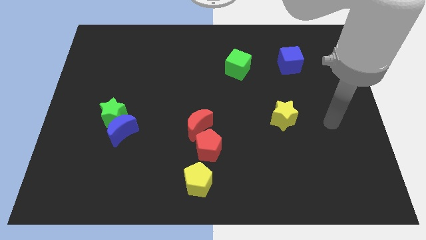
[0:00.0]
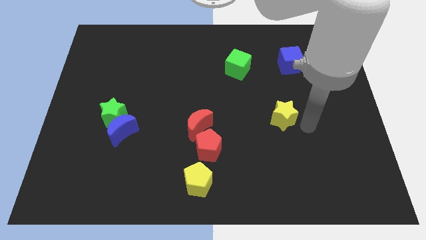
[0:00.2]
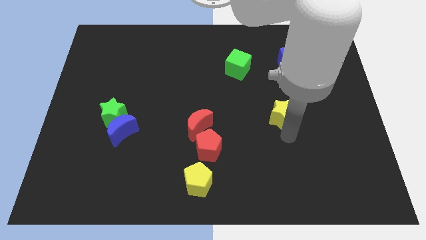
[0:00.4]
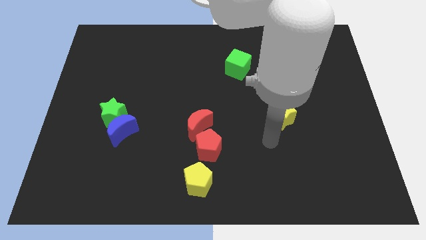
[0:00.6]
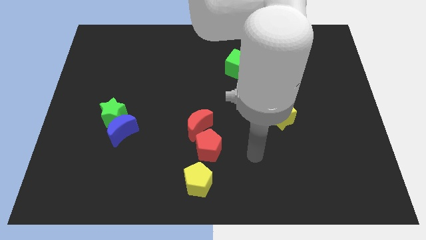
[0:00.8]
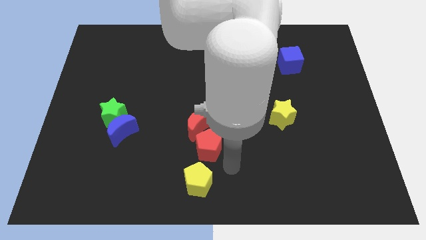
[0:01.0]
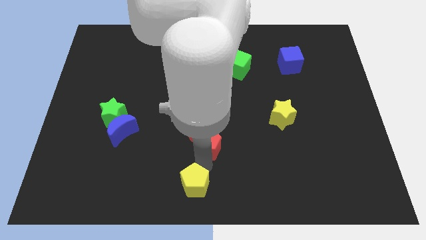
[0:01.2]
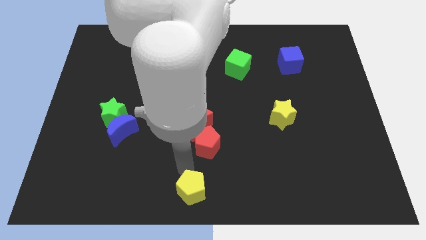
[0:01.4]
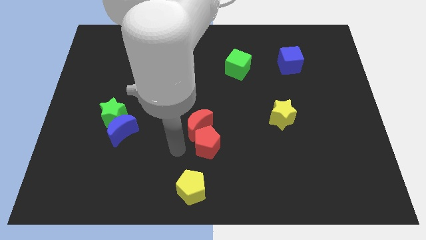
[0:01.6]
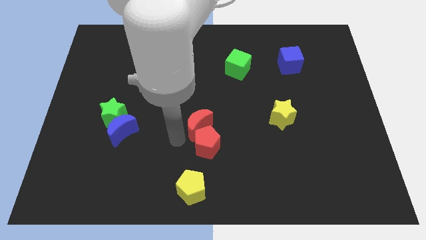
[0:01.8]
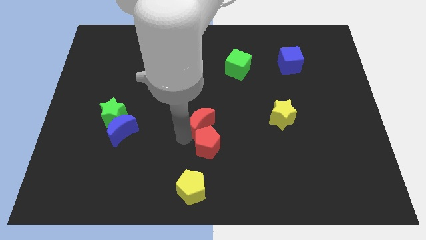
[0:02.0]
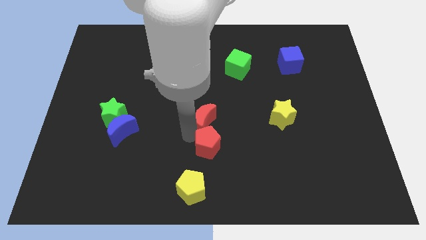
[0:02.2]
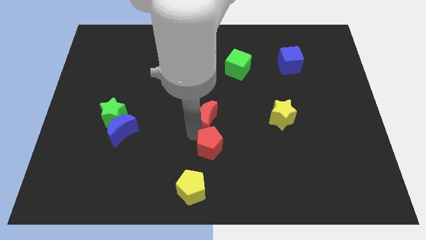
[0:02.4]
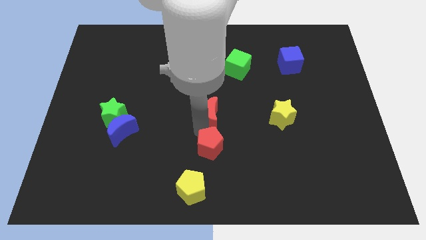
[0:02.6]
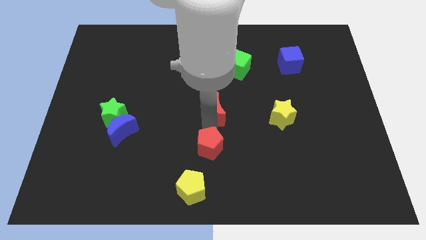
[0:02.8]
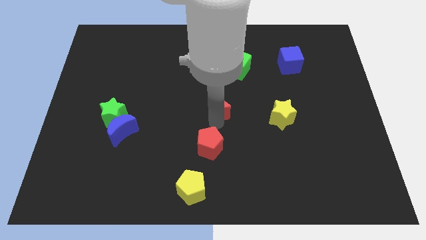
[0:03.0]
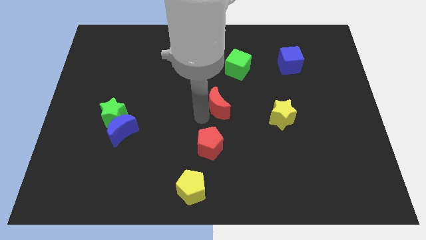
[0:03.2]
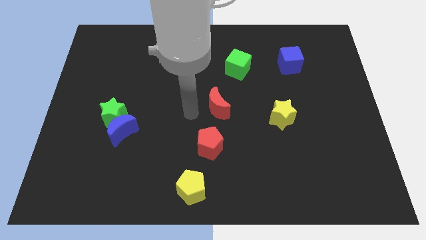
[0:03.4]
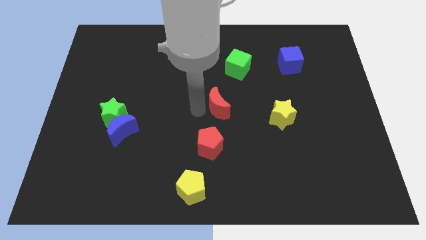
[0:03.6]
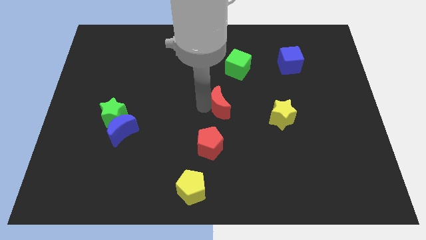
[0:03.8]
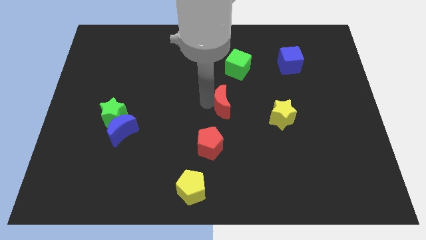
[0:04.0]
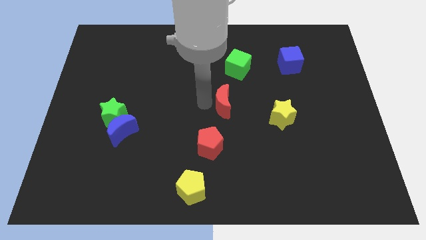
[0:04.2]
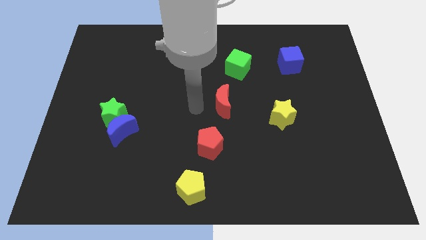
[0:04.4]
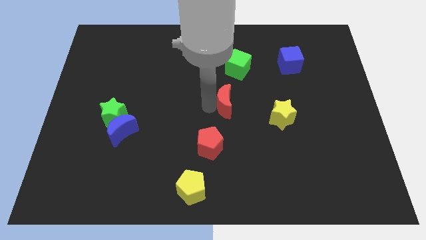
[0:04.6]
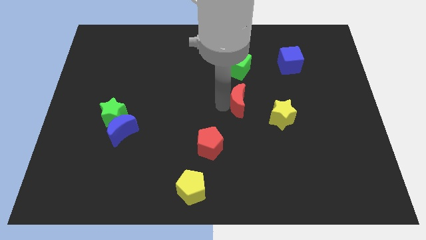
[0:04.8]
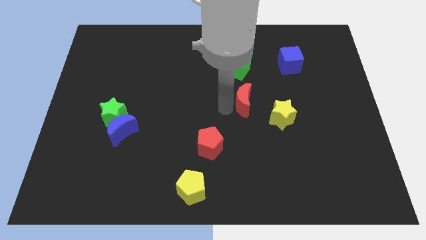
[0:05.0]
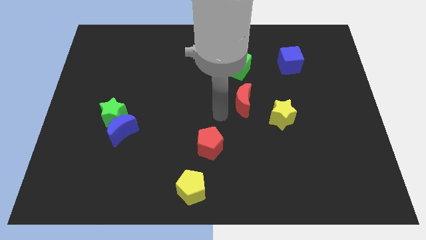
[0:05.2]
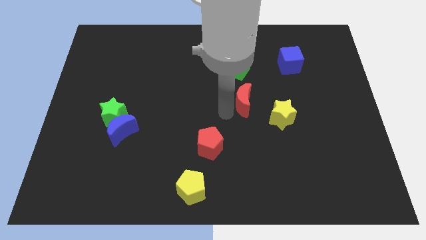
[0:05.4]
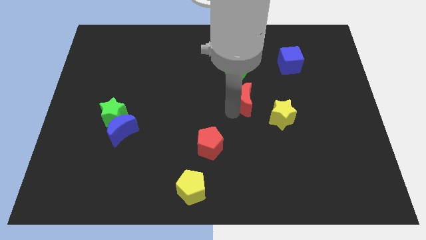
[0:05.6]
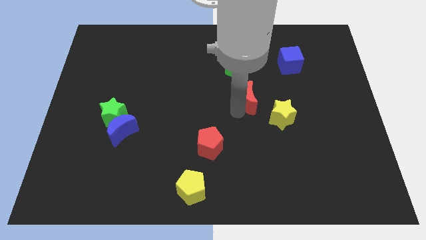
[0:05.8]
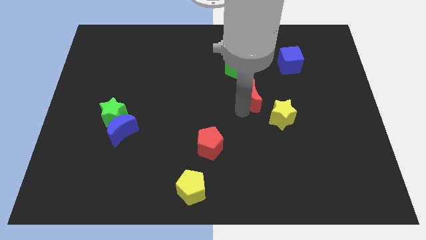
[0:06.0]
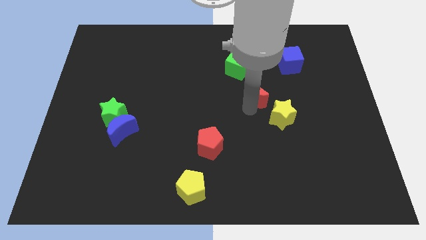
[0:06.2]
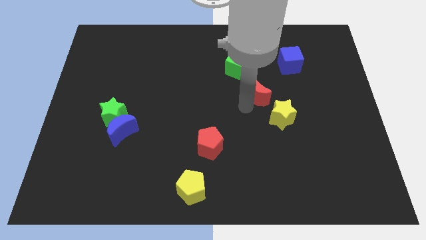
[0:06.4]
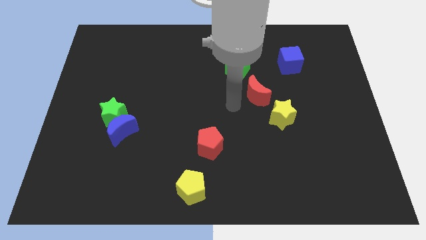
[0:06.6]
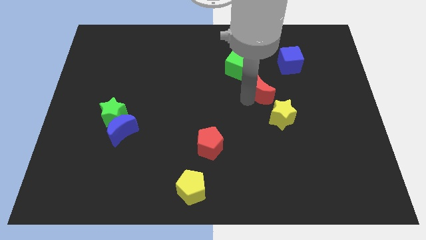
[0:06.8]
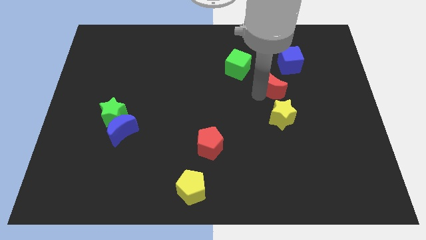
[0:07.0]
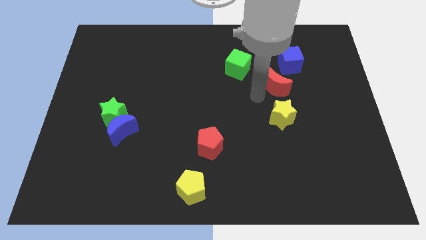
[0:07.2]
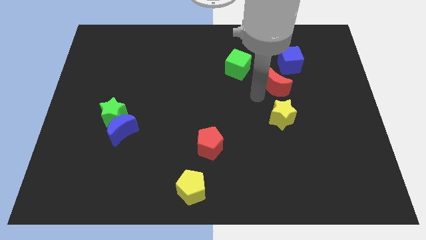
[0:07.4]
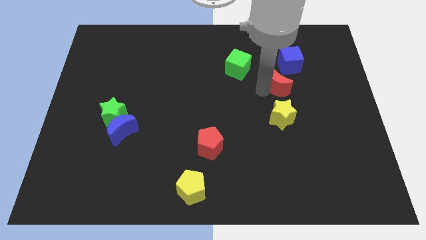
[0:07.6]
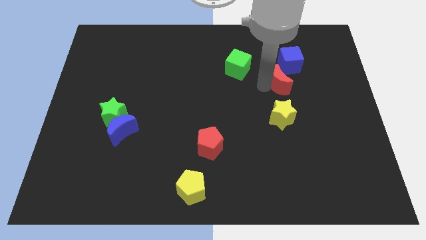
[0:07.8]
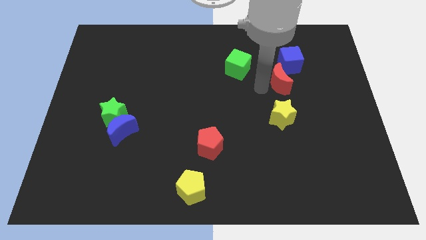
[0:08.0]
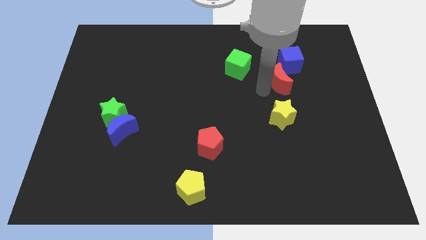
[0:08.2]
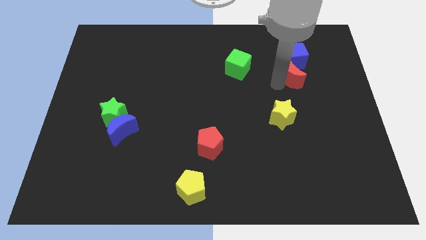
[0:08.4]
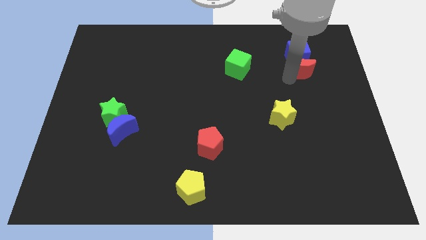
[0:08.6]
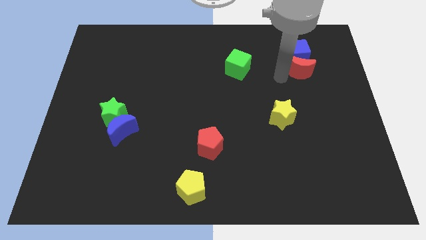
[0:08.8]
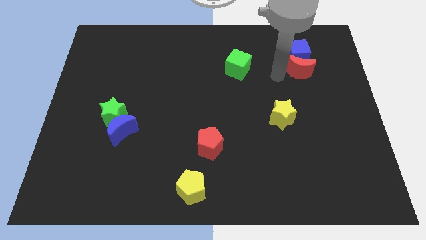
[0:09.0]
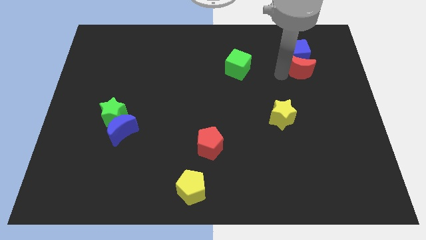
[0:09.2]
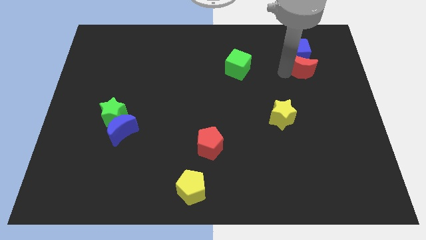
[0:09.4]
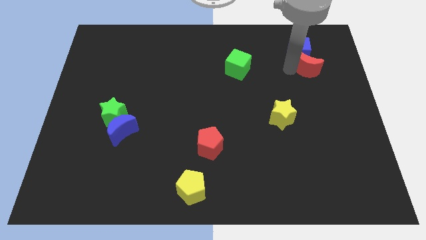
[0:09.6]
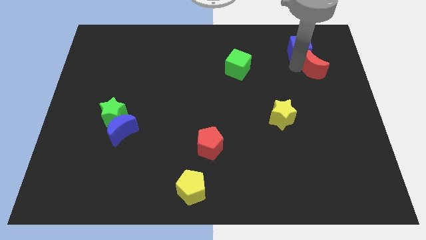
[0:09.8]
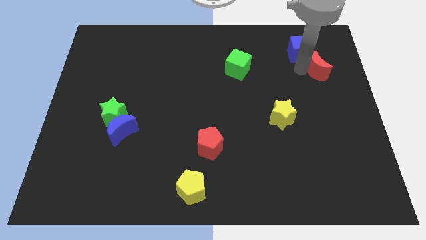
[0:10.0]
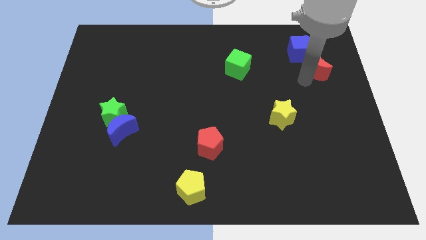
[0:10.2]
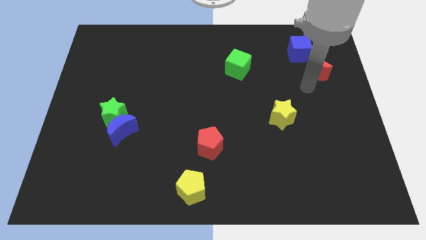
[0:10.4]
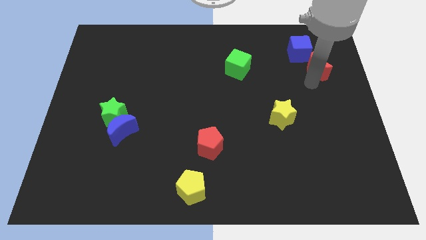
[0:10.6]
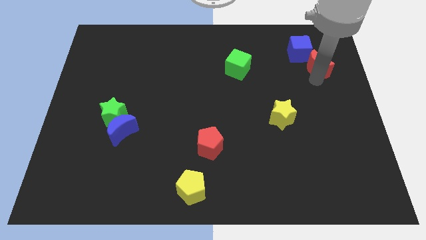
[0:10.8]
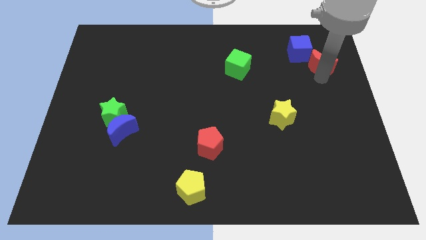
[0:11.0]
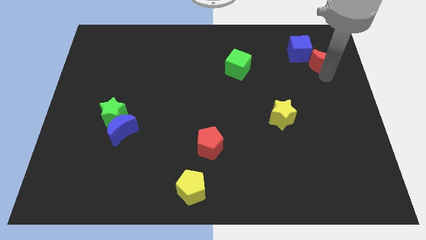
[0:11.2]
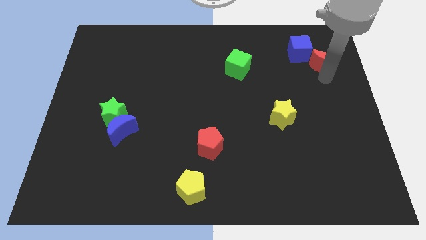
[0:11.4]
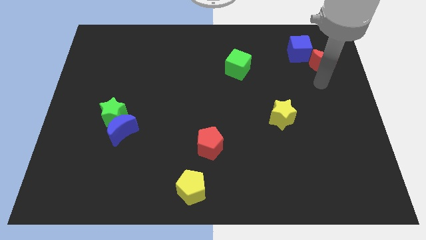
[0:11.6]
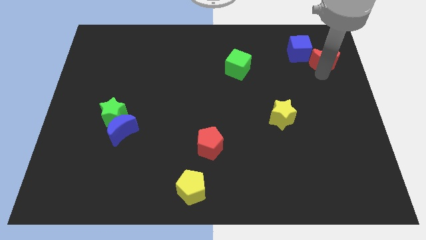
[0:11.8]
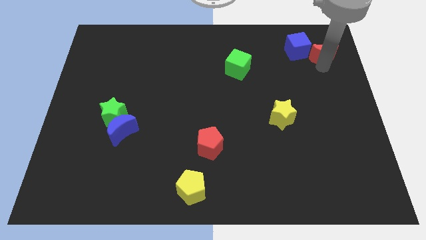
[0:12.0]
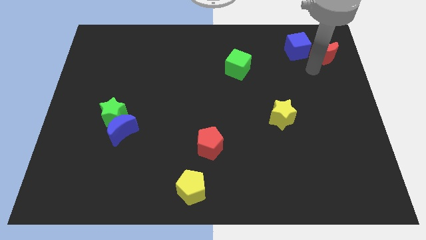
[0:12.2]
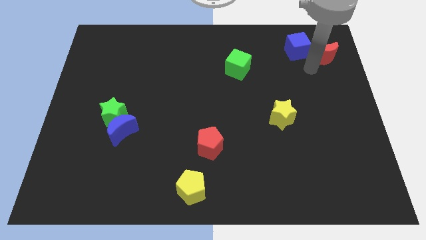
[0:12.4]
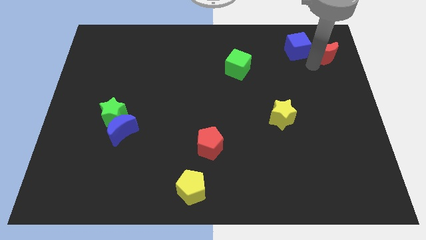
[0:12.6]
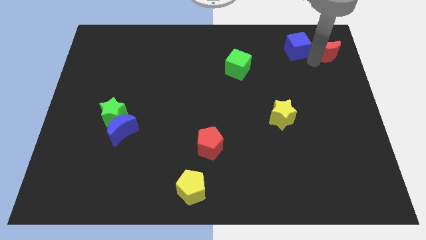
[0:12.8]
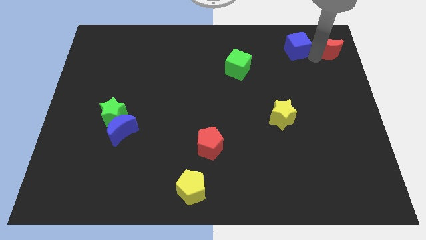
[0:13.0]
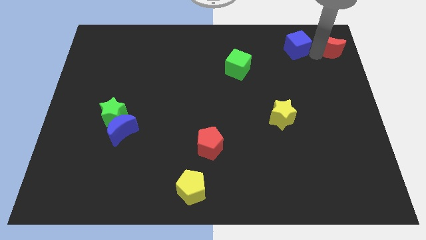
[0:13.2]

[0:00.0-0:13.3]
push the red moon to the top right of the board
